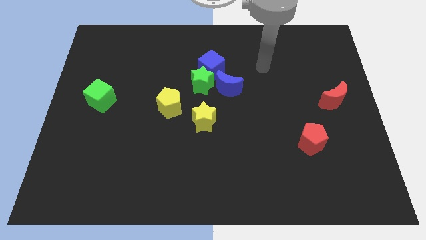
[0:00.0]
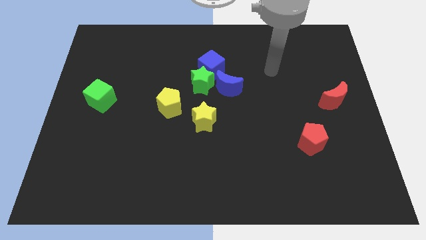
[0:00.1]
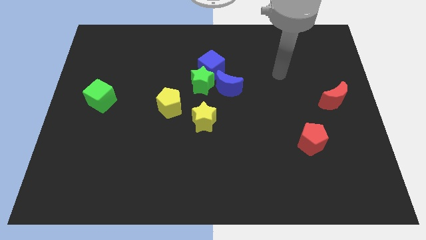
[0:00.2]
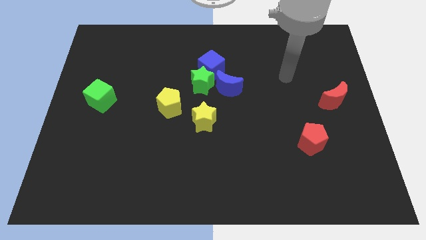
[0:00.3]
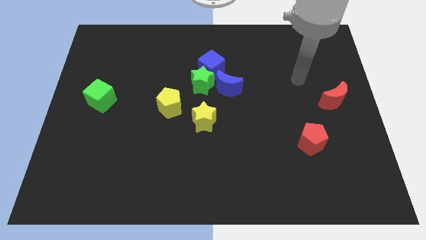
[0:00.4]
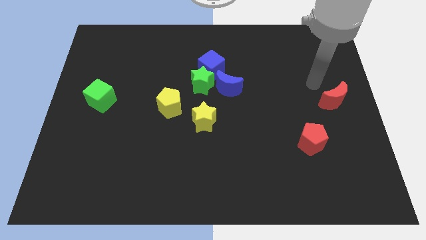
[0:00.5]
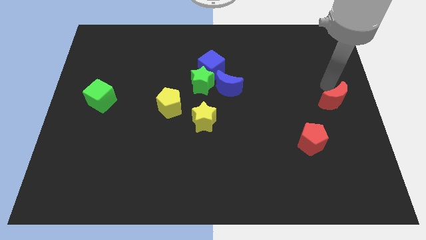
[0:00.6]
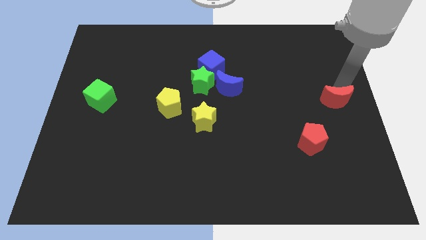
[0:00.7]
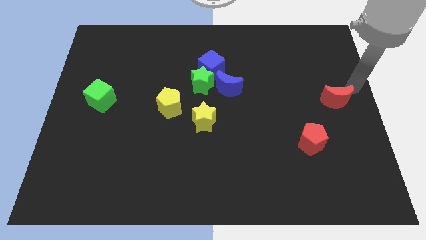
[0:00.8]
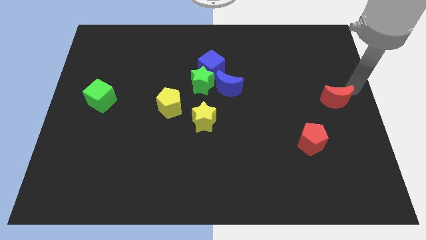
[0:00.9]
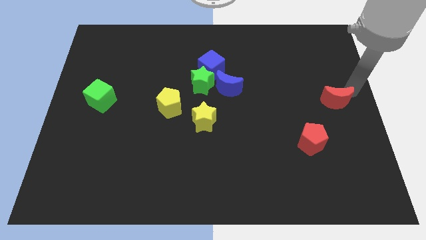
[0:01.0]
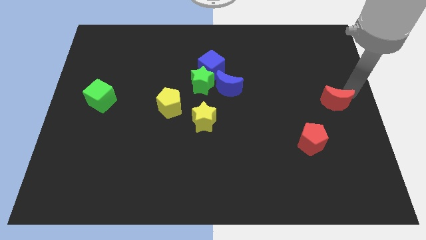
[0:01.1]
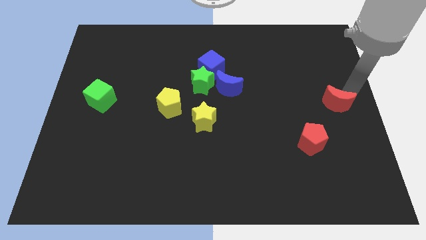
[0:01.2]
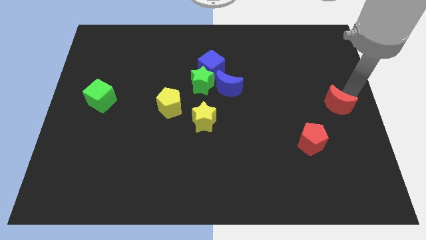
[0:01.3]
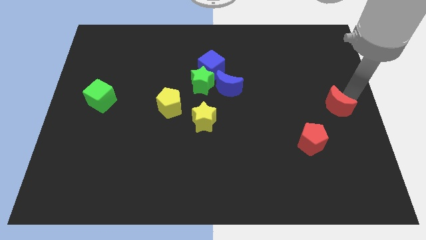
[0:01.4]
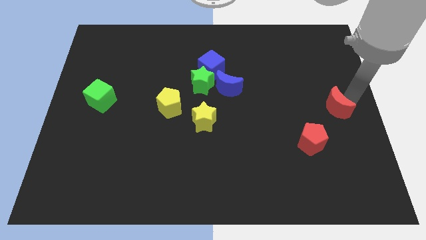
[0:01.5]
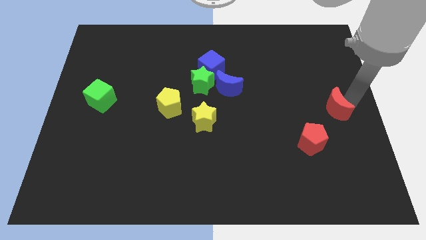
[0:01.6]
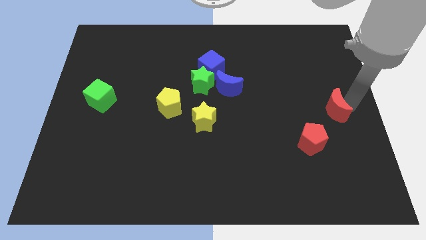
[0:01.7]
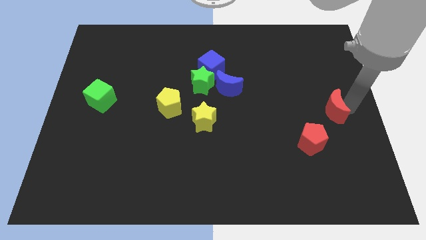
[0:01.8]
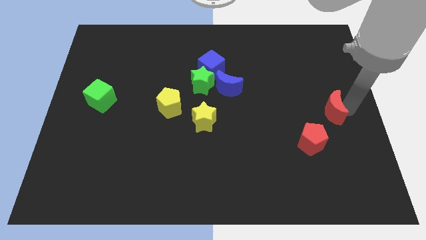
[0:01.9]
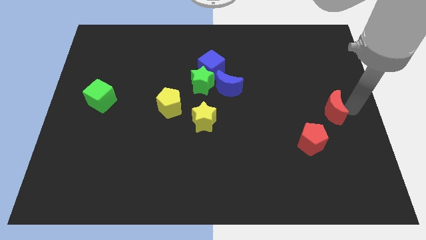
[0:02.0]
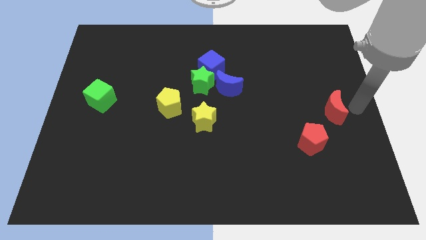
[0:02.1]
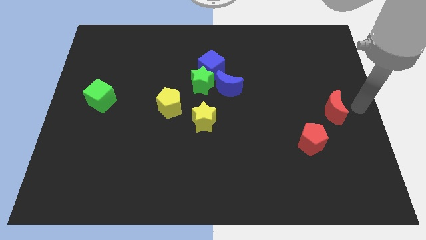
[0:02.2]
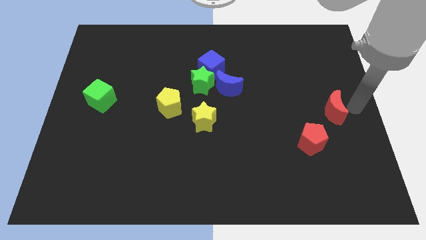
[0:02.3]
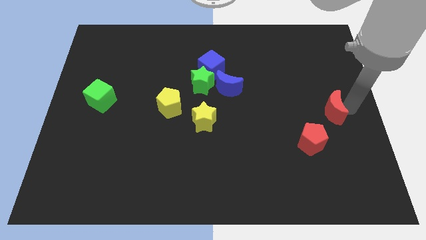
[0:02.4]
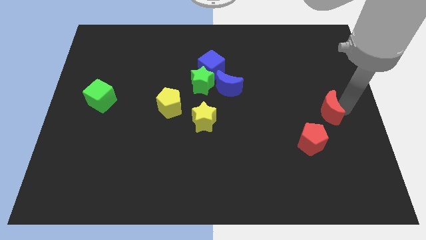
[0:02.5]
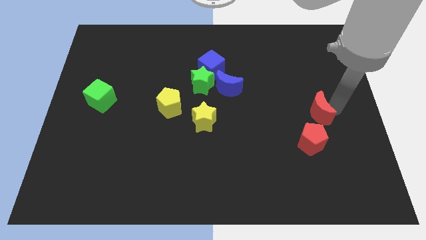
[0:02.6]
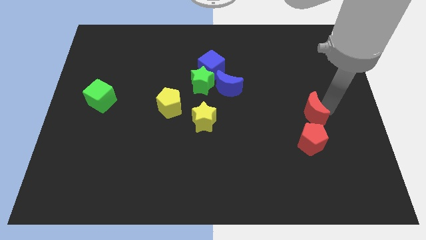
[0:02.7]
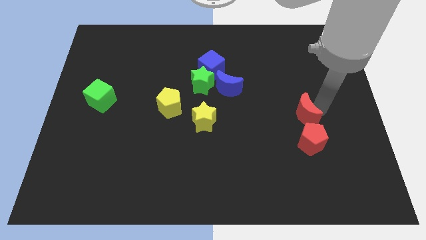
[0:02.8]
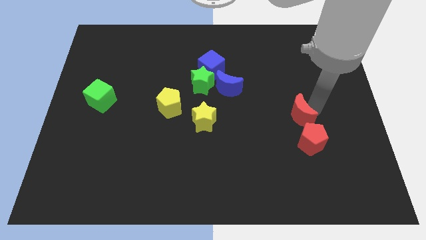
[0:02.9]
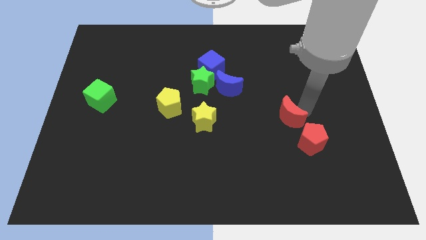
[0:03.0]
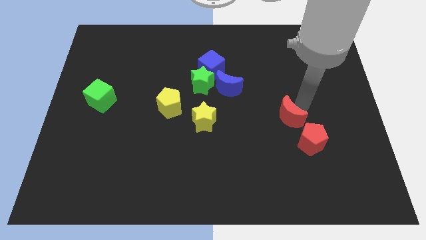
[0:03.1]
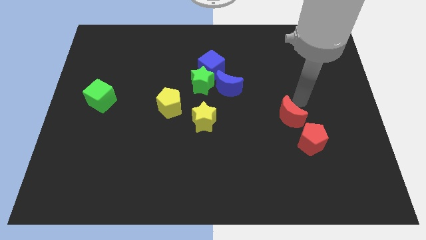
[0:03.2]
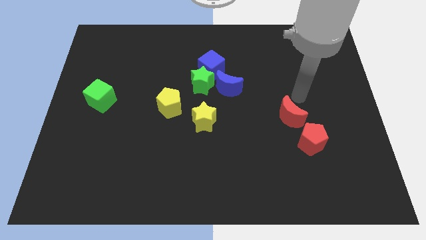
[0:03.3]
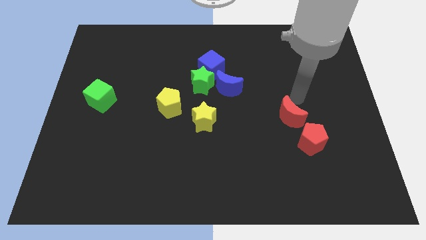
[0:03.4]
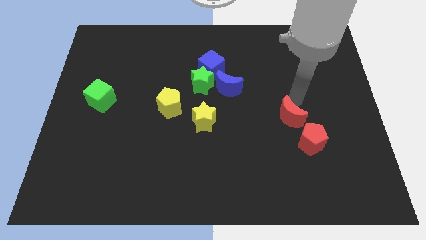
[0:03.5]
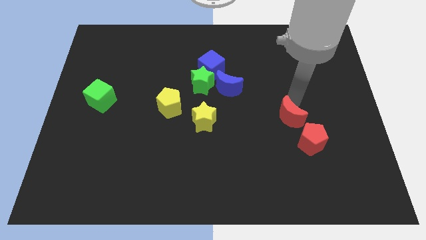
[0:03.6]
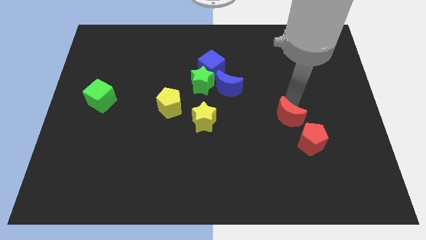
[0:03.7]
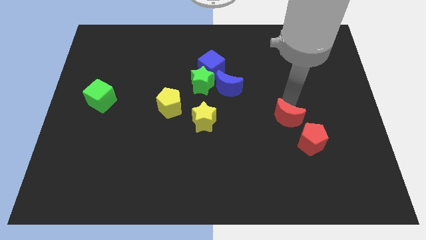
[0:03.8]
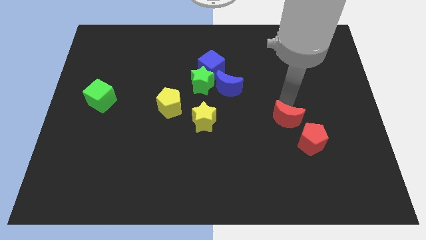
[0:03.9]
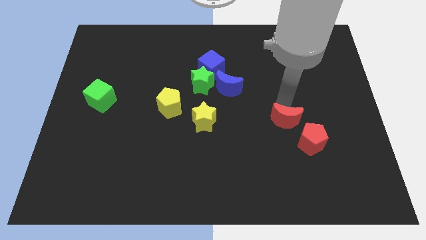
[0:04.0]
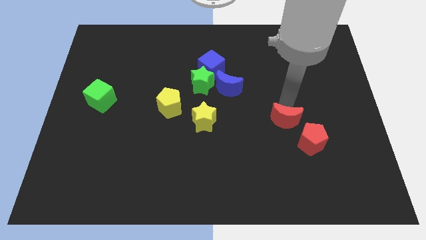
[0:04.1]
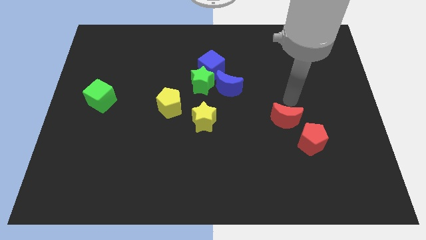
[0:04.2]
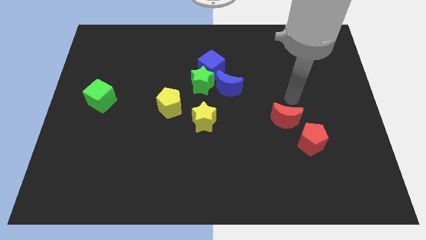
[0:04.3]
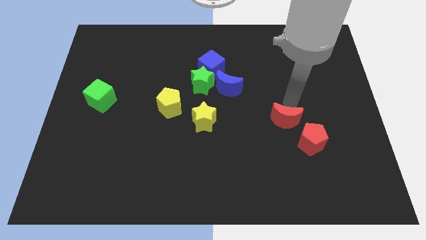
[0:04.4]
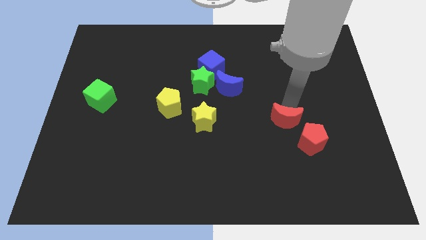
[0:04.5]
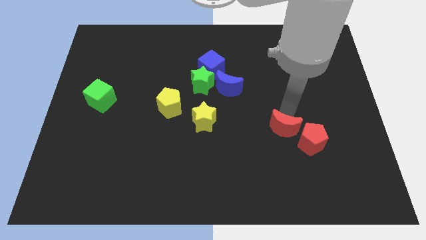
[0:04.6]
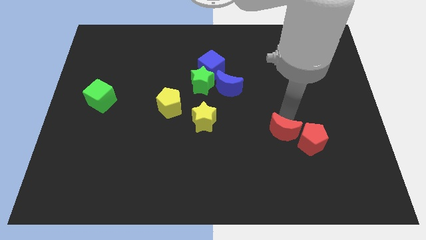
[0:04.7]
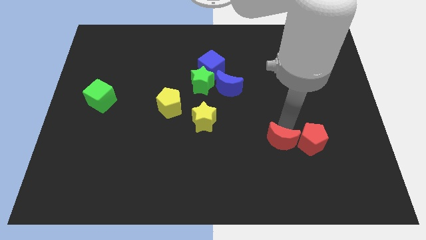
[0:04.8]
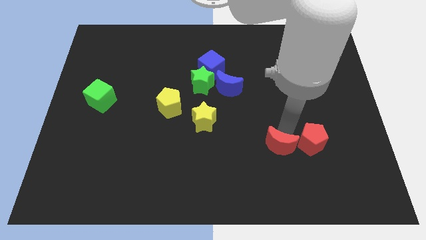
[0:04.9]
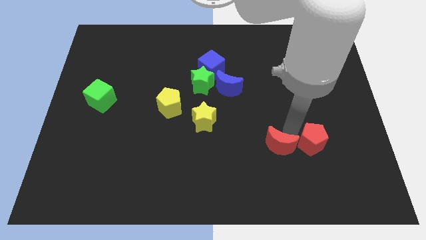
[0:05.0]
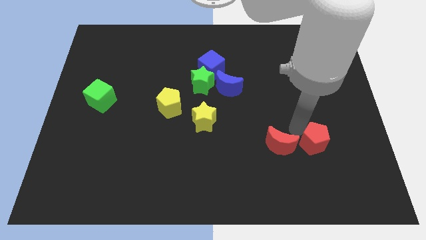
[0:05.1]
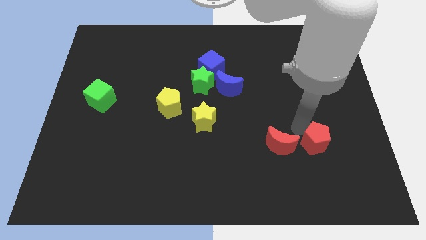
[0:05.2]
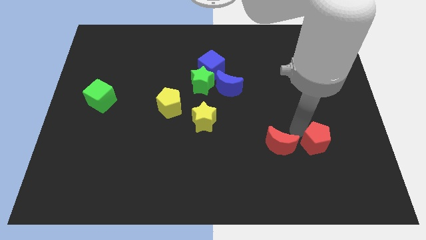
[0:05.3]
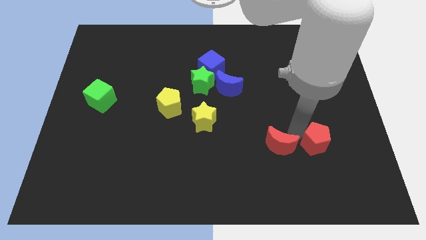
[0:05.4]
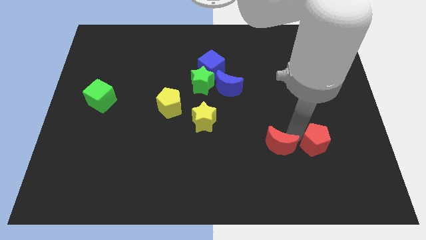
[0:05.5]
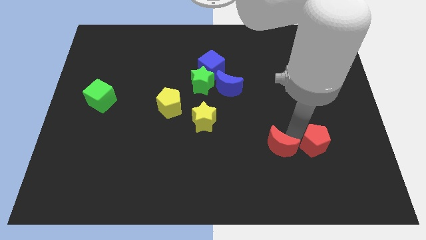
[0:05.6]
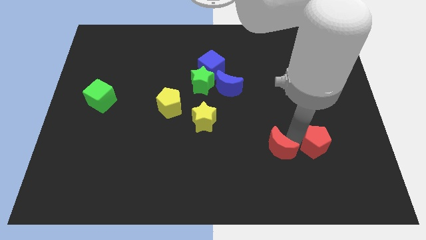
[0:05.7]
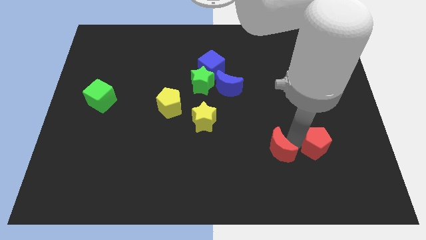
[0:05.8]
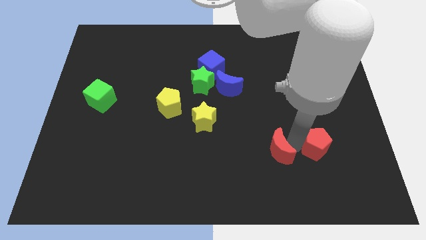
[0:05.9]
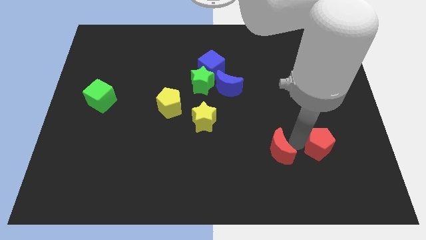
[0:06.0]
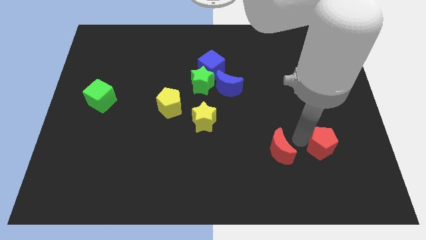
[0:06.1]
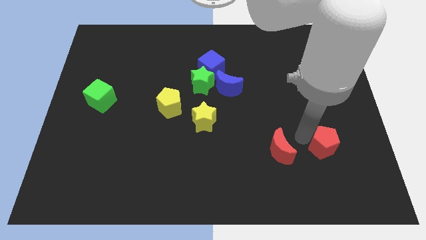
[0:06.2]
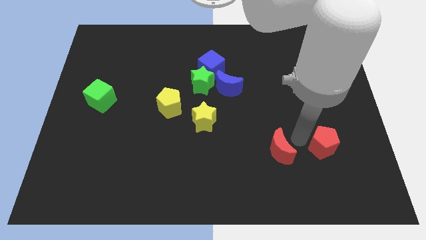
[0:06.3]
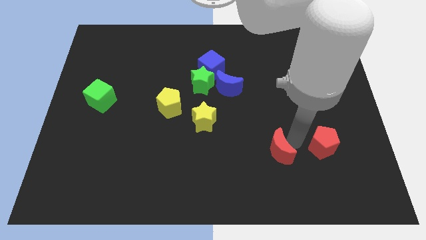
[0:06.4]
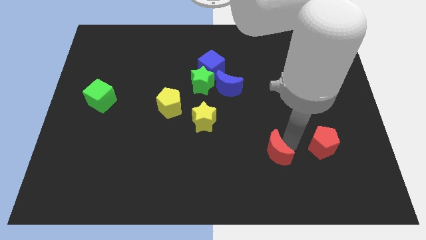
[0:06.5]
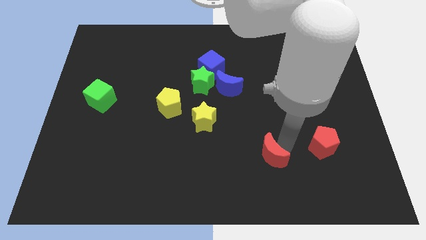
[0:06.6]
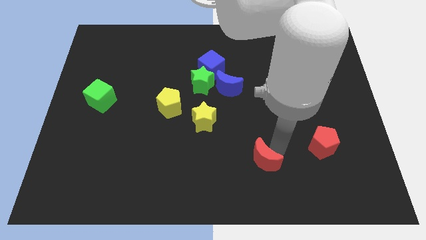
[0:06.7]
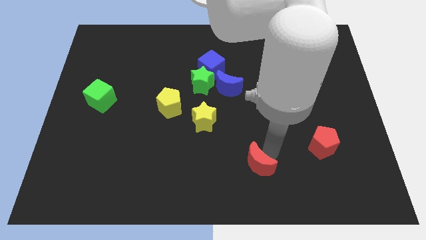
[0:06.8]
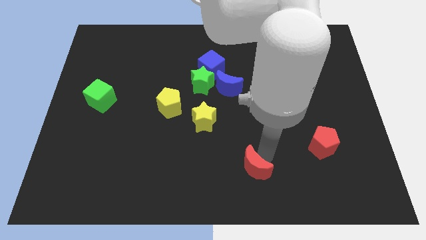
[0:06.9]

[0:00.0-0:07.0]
push the red moon to the bottom side
